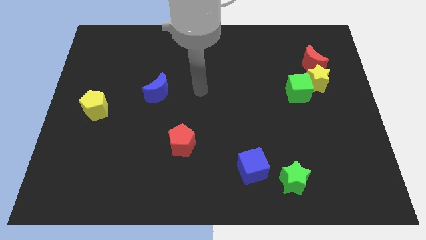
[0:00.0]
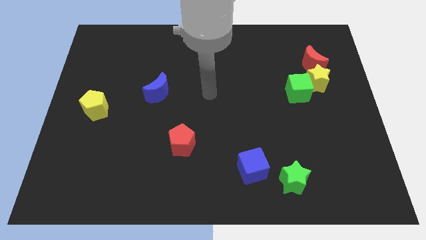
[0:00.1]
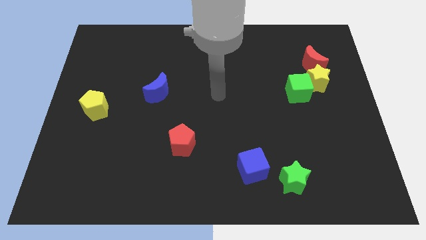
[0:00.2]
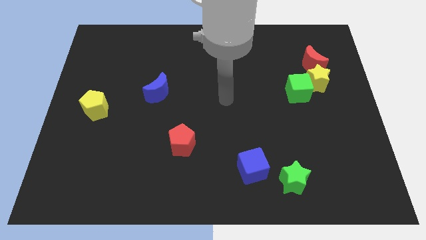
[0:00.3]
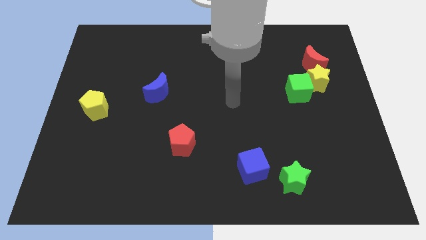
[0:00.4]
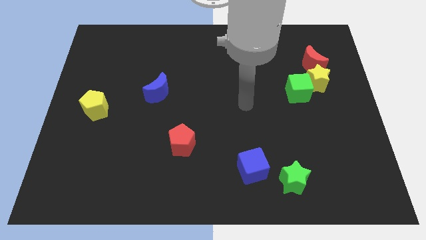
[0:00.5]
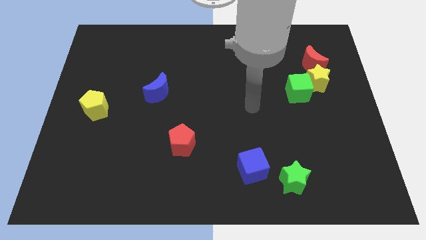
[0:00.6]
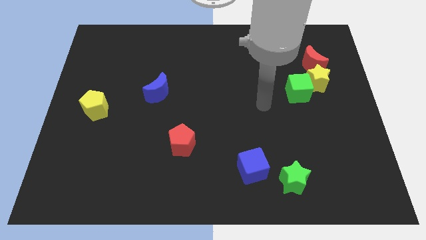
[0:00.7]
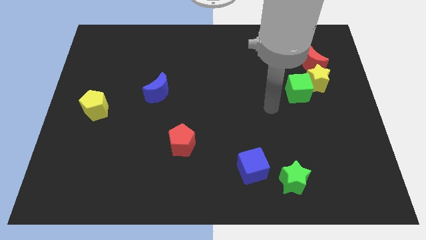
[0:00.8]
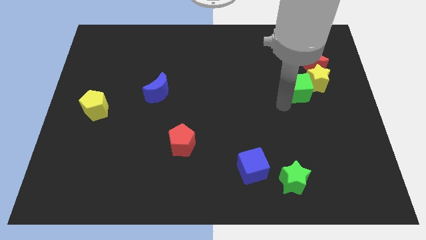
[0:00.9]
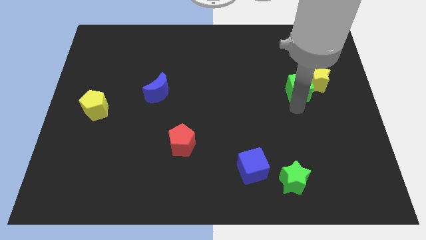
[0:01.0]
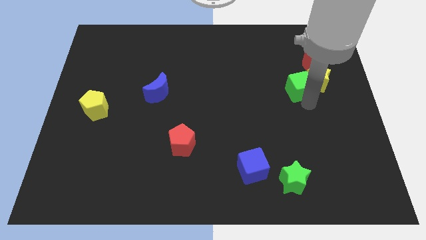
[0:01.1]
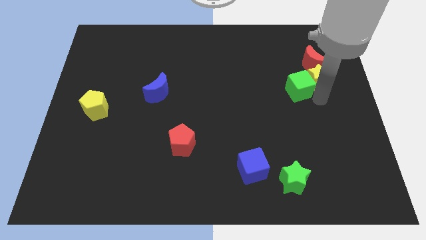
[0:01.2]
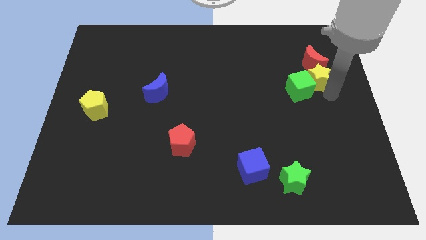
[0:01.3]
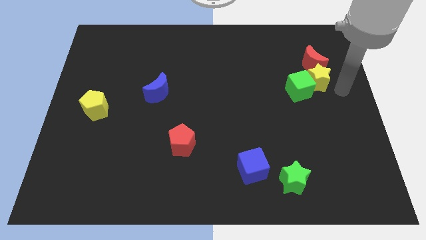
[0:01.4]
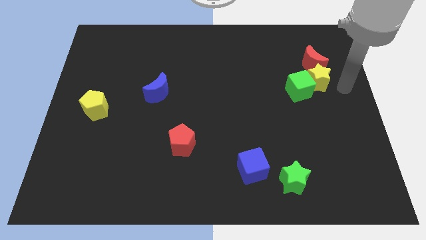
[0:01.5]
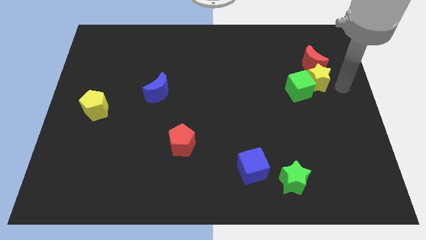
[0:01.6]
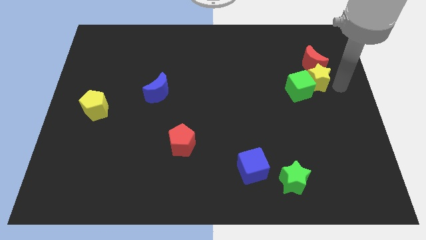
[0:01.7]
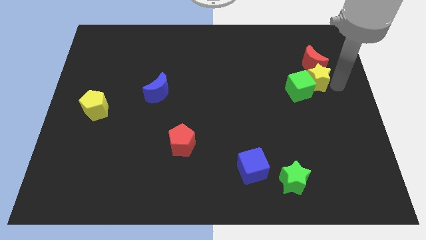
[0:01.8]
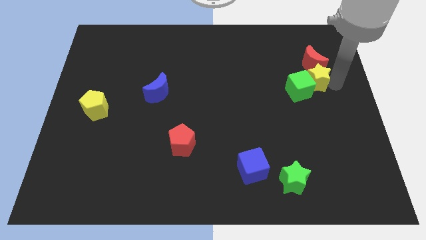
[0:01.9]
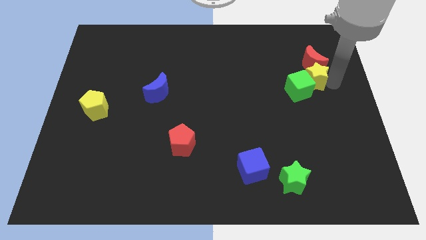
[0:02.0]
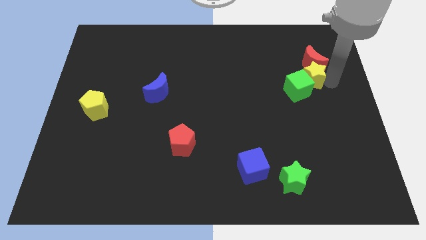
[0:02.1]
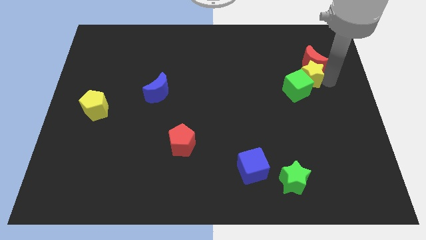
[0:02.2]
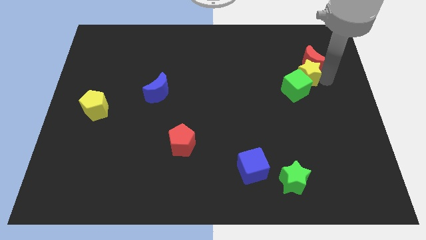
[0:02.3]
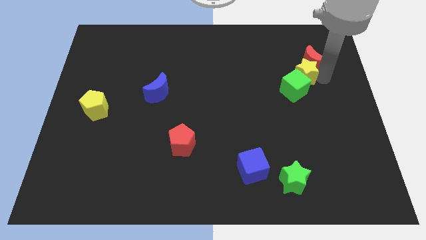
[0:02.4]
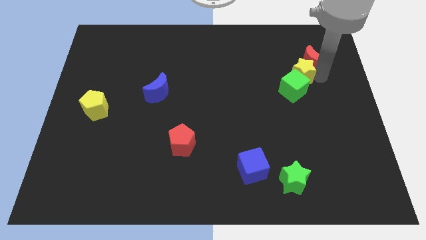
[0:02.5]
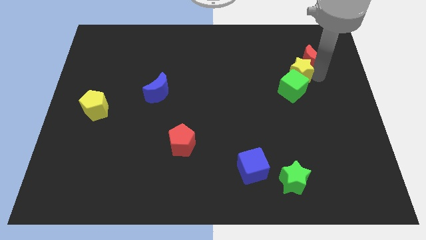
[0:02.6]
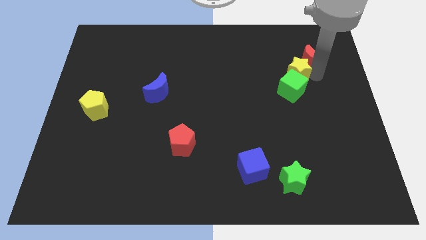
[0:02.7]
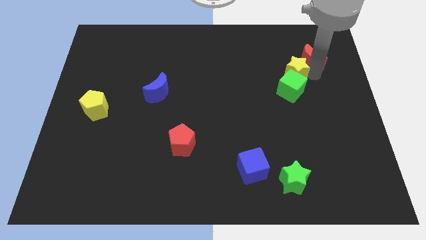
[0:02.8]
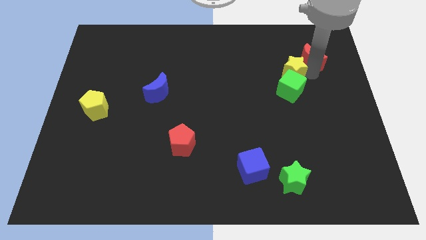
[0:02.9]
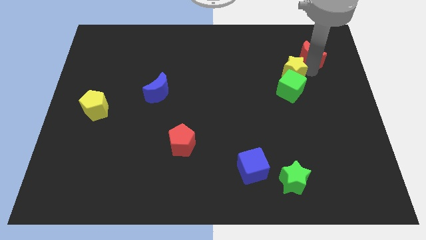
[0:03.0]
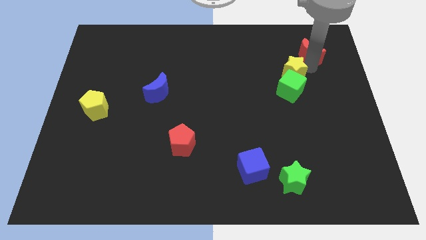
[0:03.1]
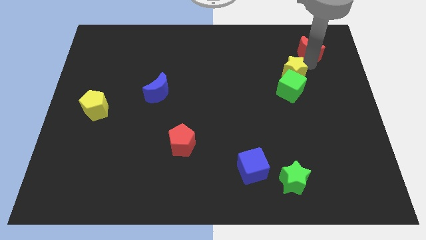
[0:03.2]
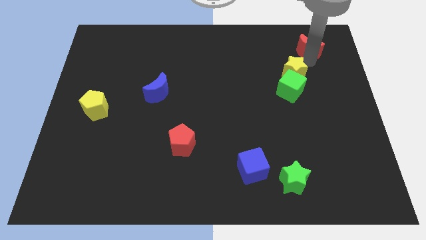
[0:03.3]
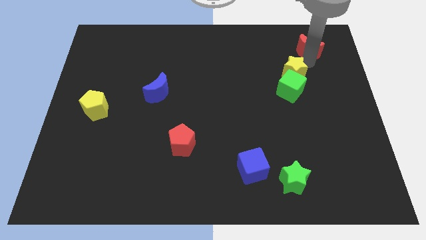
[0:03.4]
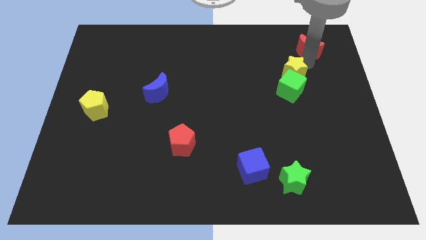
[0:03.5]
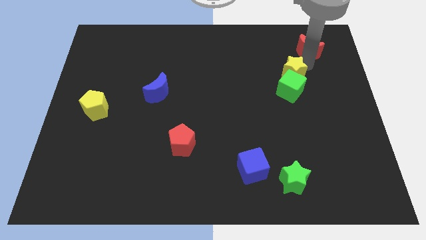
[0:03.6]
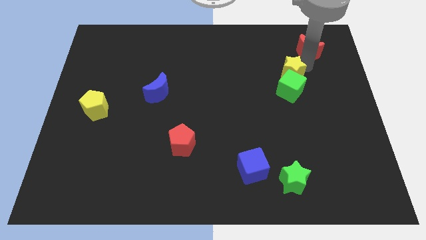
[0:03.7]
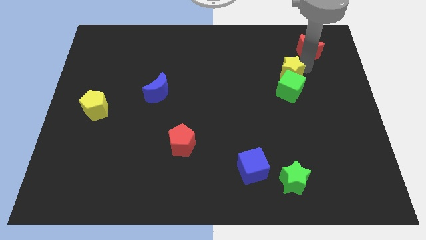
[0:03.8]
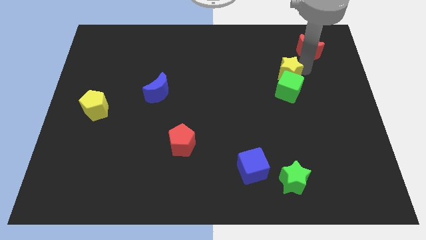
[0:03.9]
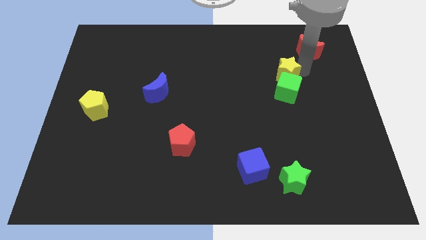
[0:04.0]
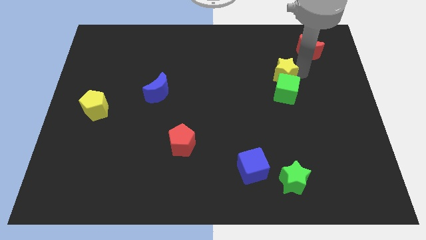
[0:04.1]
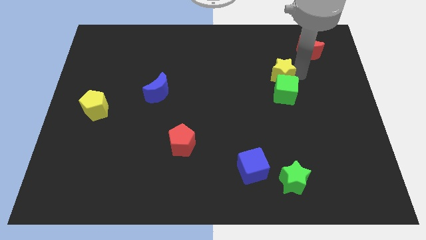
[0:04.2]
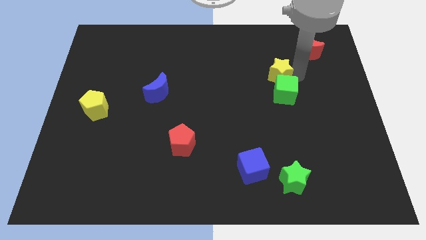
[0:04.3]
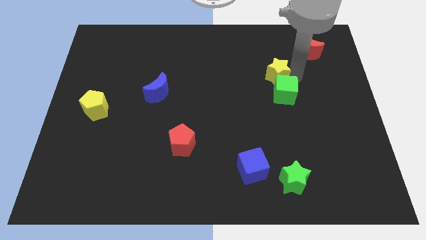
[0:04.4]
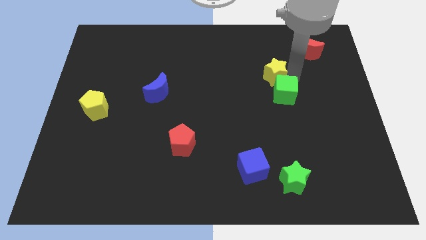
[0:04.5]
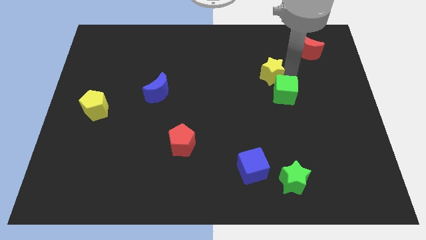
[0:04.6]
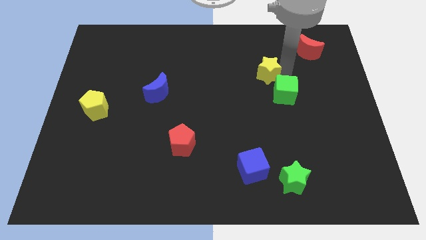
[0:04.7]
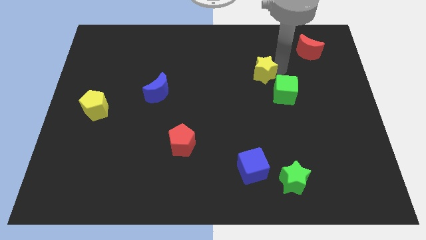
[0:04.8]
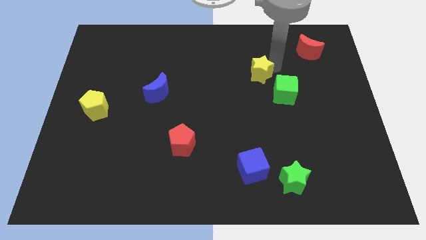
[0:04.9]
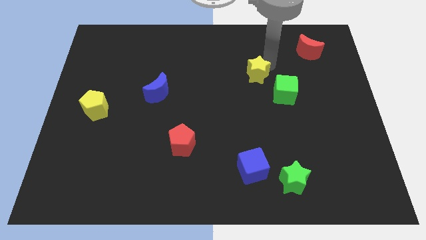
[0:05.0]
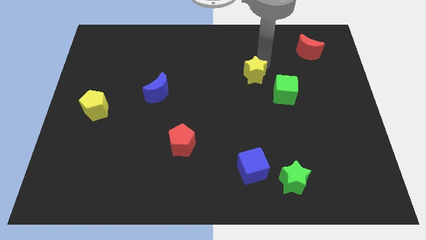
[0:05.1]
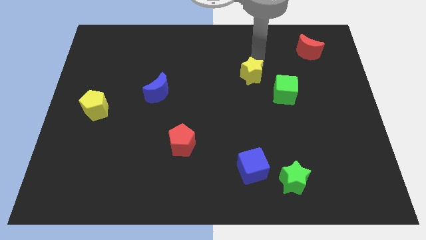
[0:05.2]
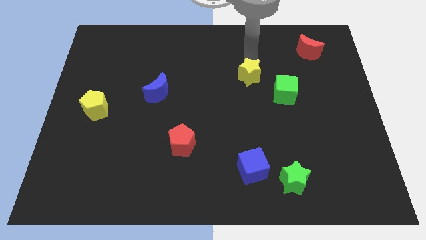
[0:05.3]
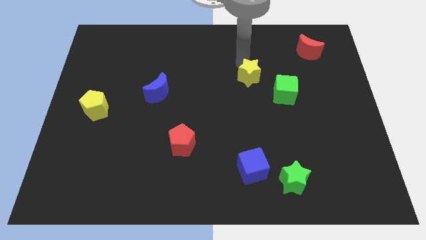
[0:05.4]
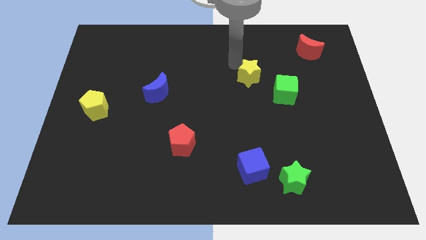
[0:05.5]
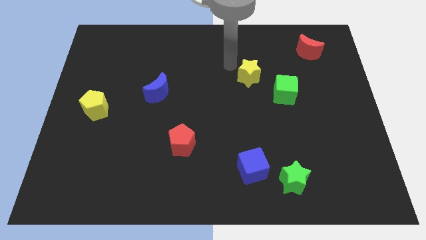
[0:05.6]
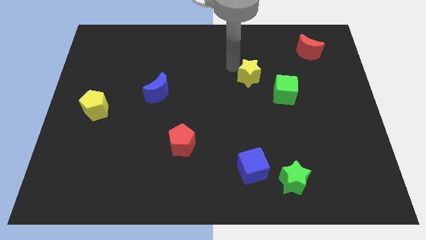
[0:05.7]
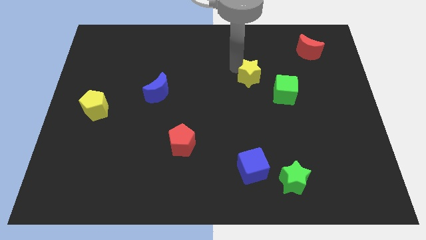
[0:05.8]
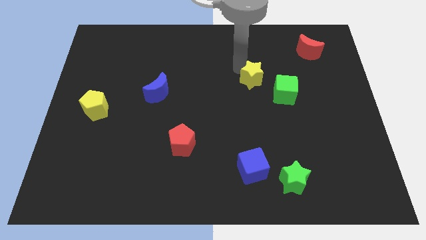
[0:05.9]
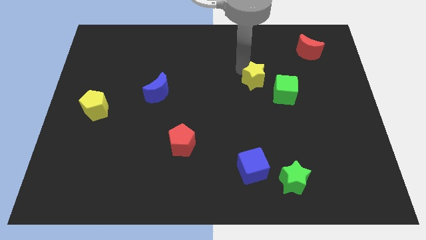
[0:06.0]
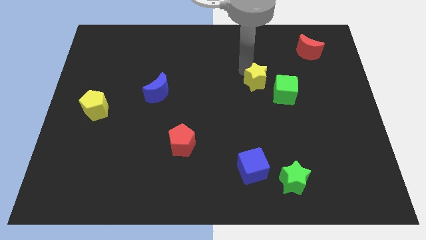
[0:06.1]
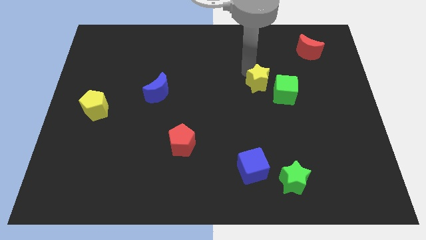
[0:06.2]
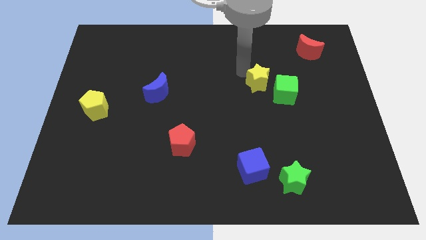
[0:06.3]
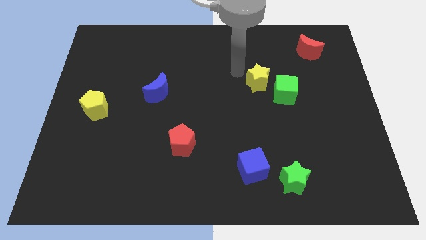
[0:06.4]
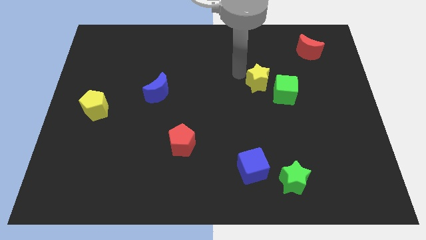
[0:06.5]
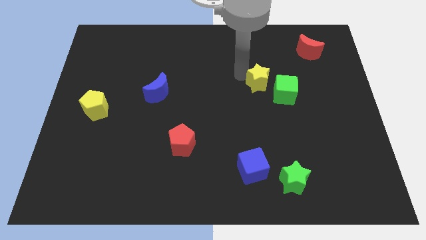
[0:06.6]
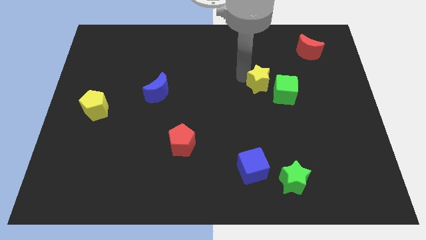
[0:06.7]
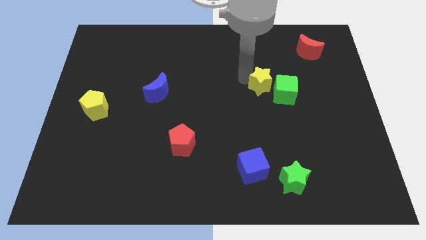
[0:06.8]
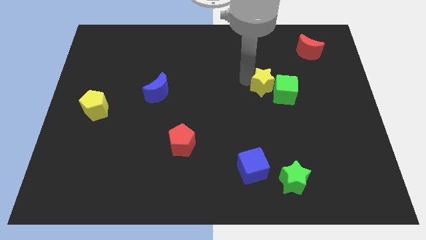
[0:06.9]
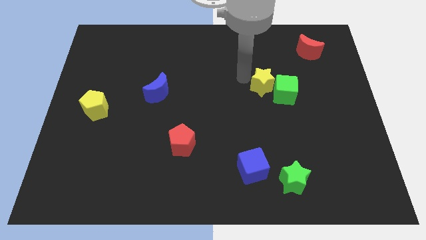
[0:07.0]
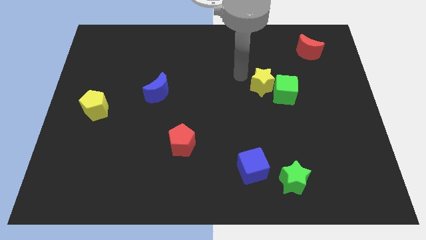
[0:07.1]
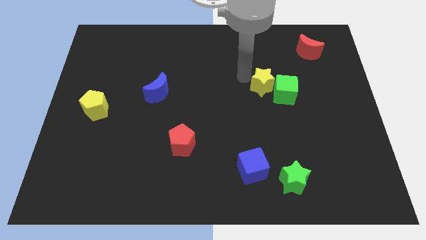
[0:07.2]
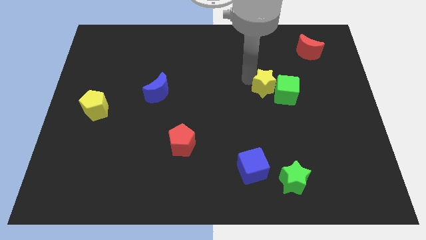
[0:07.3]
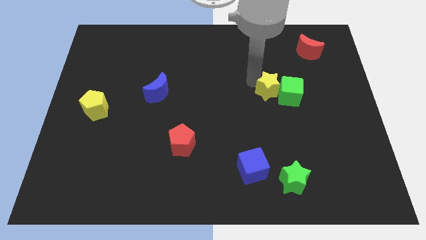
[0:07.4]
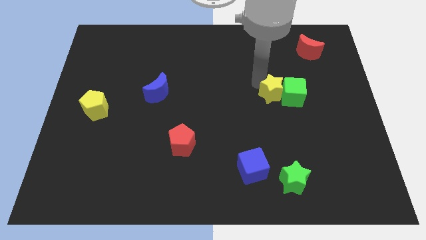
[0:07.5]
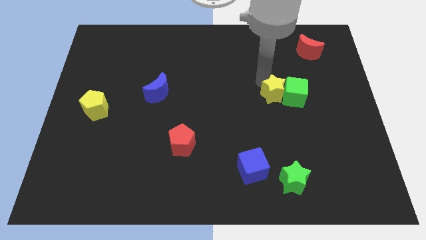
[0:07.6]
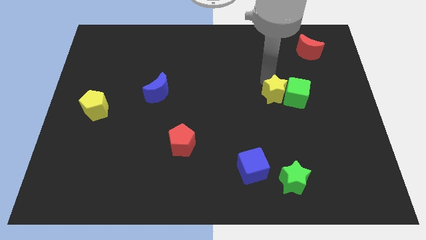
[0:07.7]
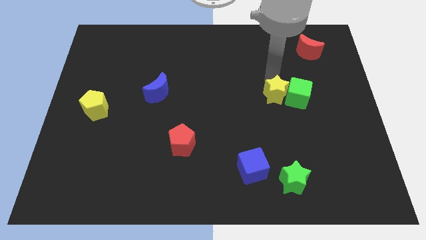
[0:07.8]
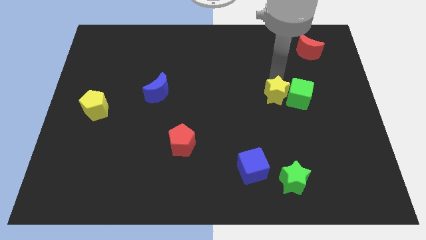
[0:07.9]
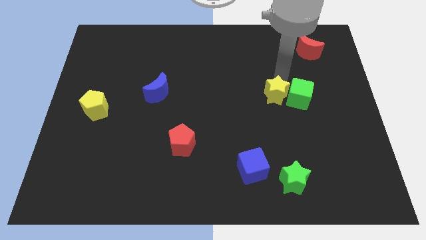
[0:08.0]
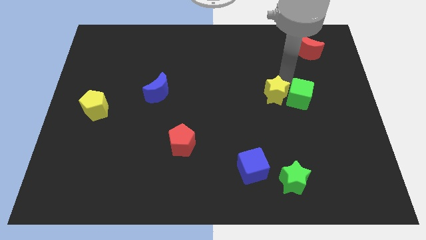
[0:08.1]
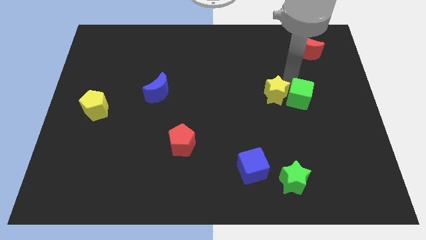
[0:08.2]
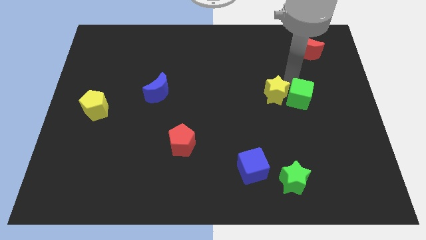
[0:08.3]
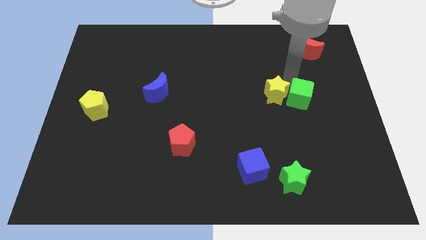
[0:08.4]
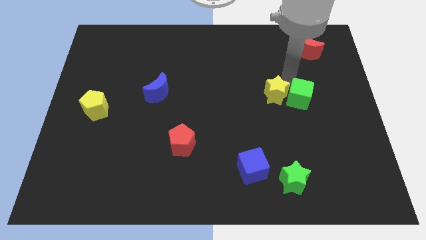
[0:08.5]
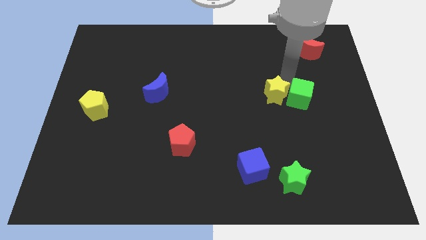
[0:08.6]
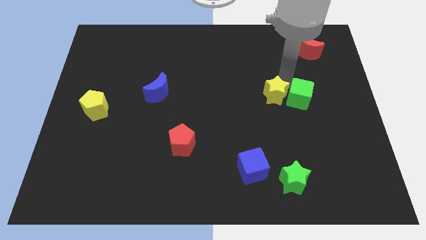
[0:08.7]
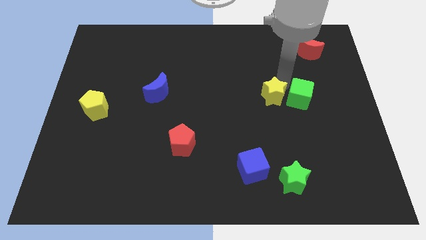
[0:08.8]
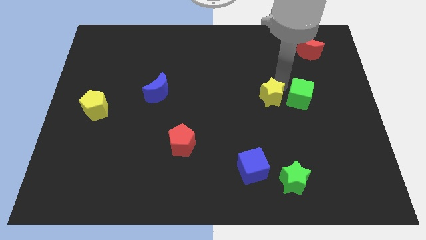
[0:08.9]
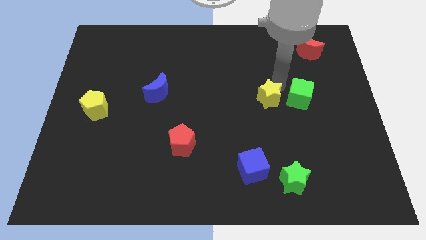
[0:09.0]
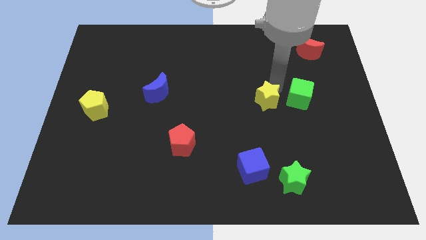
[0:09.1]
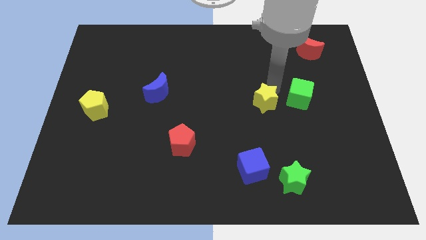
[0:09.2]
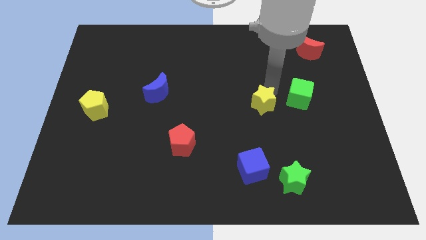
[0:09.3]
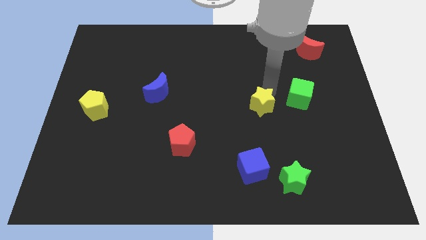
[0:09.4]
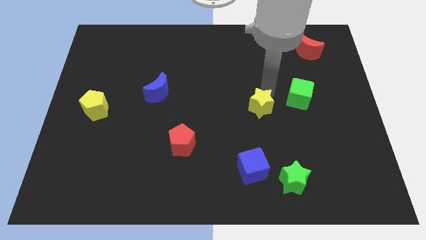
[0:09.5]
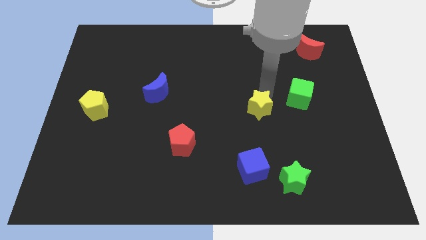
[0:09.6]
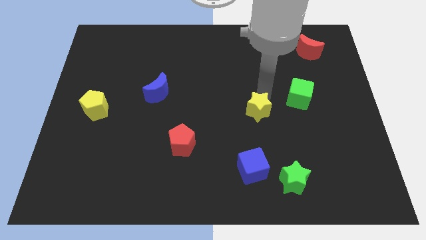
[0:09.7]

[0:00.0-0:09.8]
move the yellow star to the top side of the blue cube
